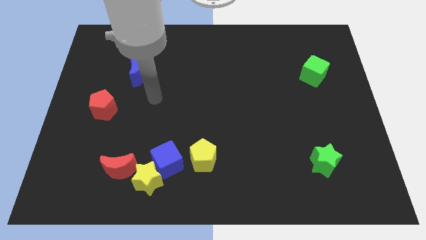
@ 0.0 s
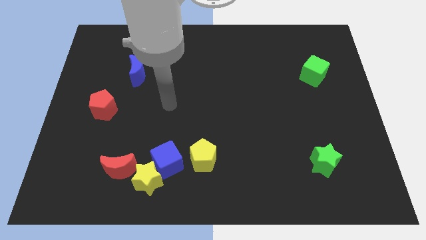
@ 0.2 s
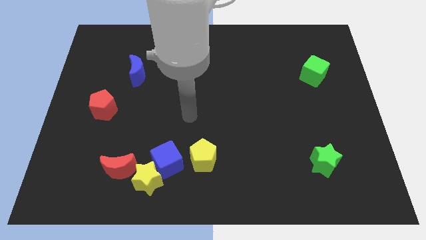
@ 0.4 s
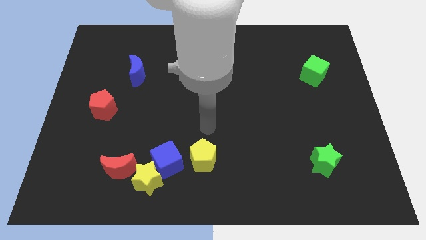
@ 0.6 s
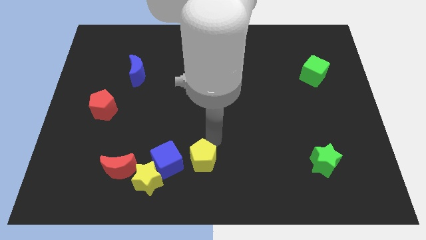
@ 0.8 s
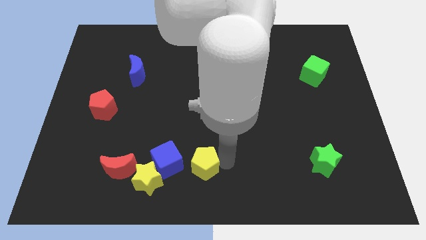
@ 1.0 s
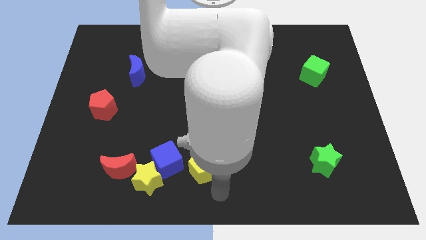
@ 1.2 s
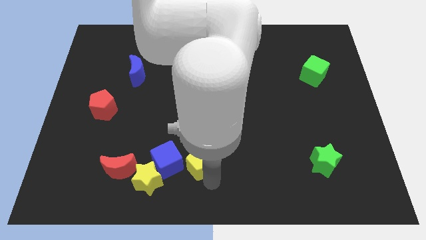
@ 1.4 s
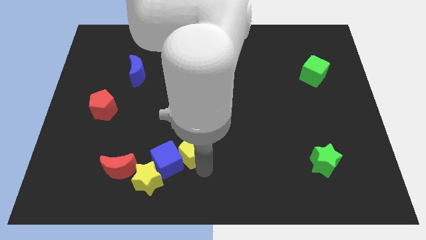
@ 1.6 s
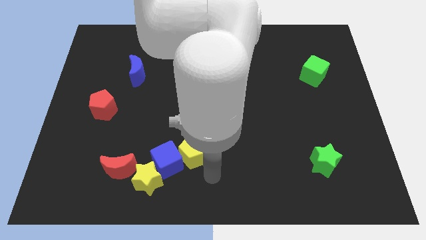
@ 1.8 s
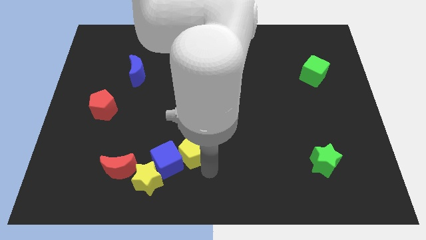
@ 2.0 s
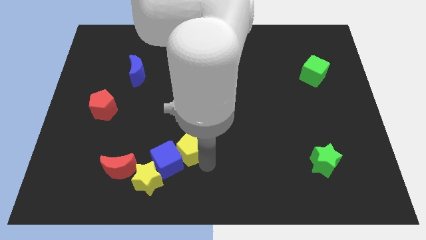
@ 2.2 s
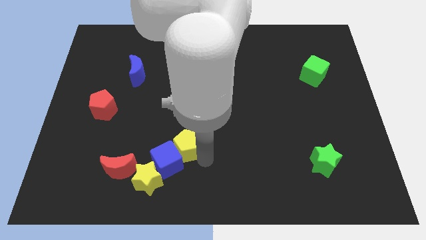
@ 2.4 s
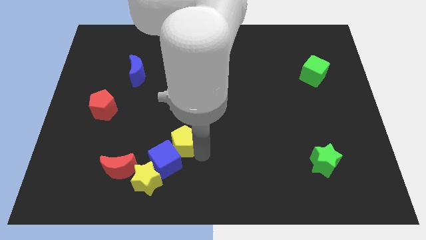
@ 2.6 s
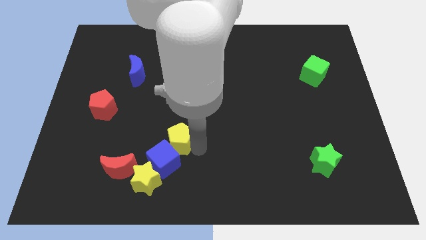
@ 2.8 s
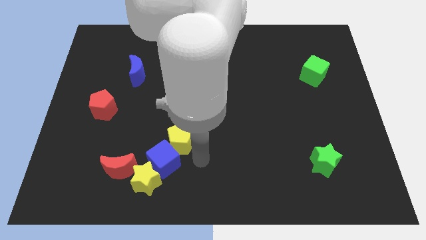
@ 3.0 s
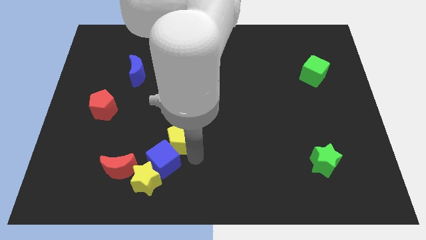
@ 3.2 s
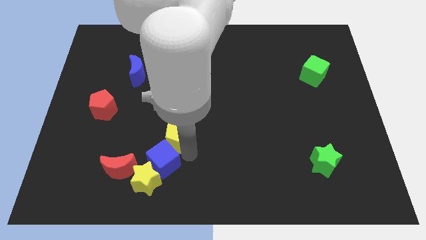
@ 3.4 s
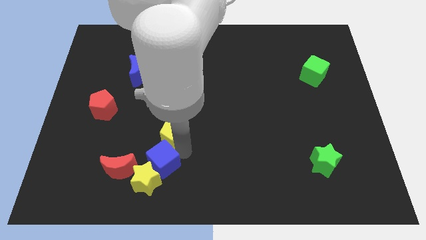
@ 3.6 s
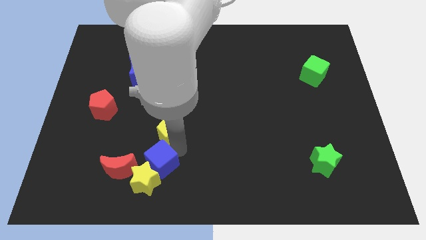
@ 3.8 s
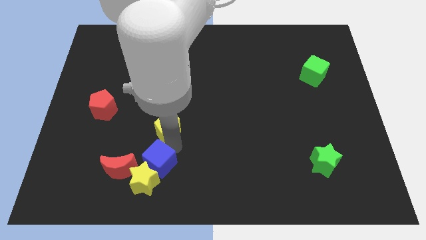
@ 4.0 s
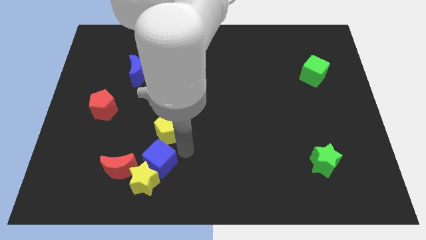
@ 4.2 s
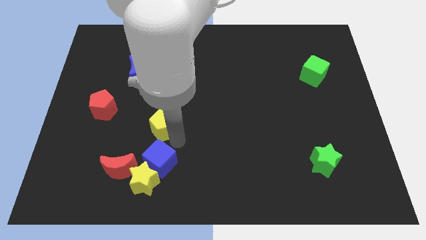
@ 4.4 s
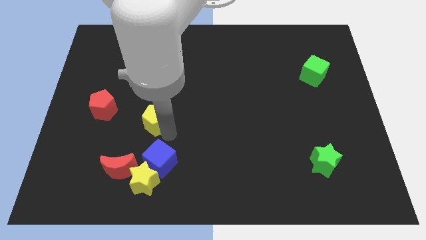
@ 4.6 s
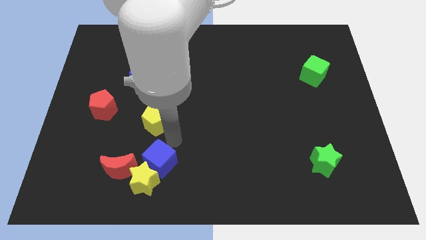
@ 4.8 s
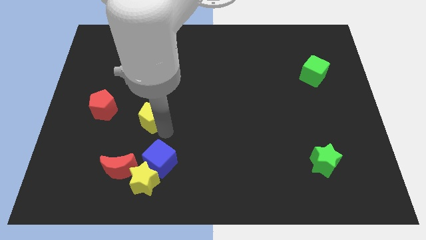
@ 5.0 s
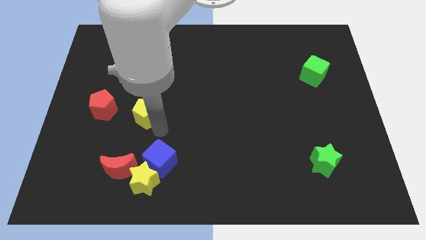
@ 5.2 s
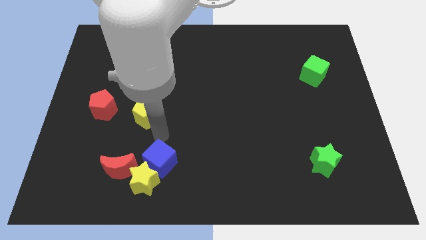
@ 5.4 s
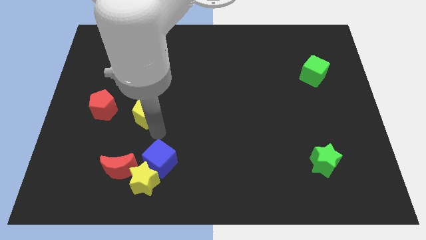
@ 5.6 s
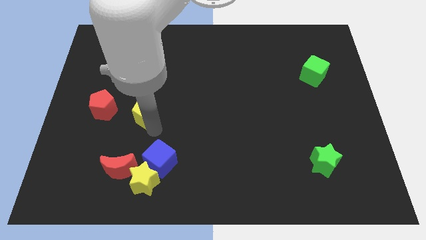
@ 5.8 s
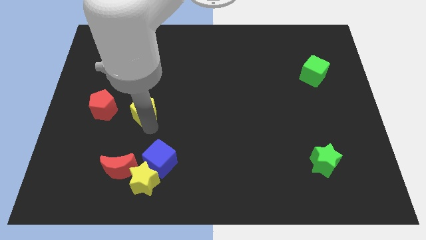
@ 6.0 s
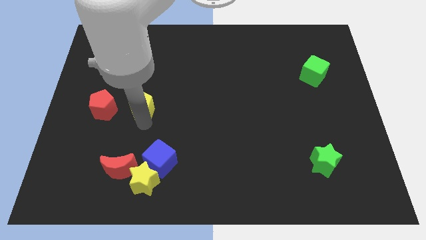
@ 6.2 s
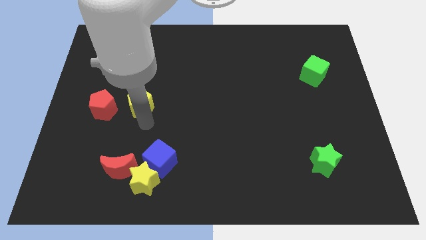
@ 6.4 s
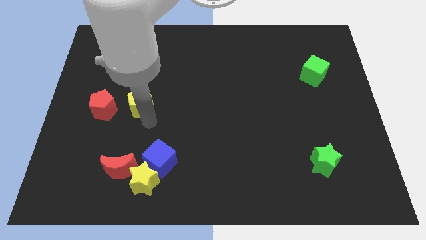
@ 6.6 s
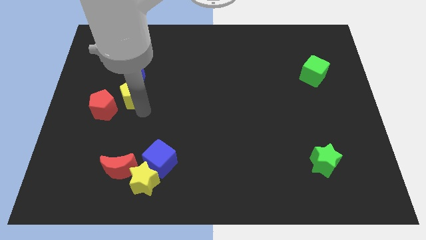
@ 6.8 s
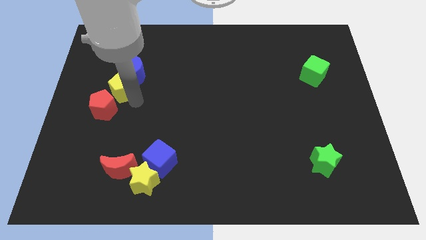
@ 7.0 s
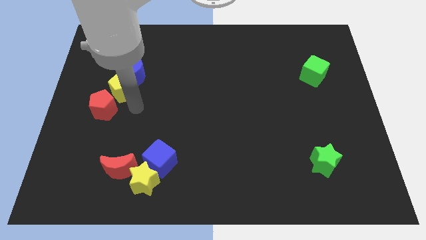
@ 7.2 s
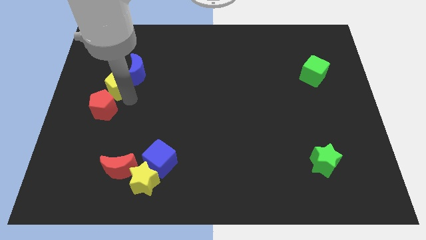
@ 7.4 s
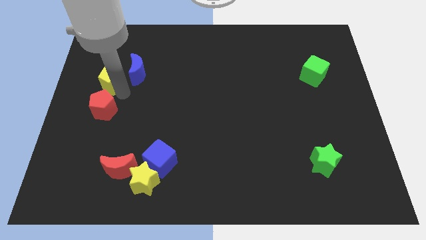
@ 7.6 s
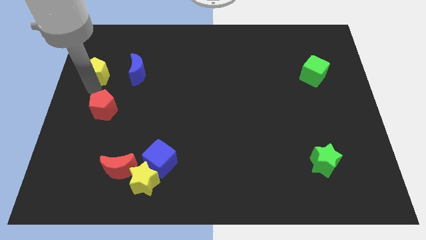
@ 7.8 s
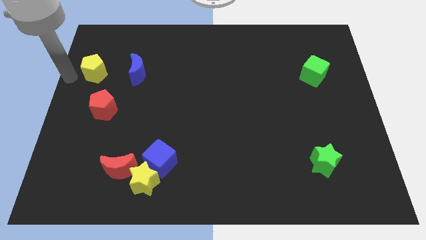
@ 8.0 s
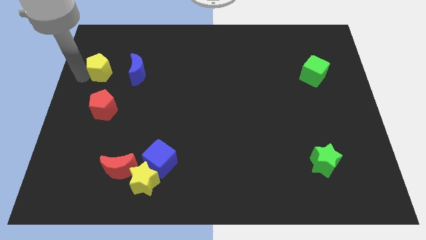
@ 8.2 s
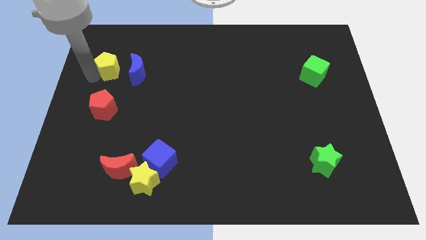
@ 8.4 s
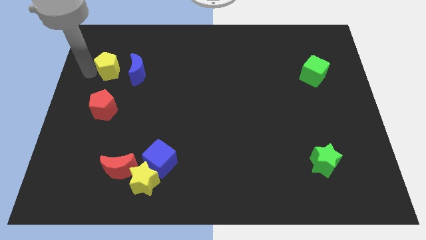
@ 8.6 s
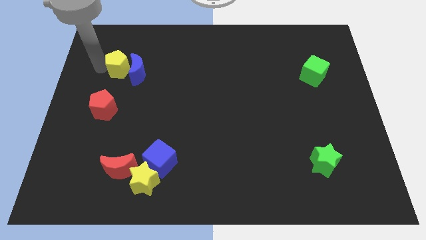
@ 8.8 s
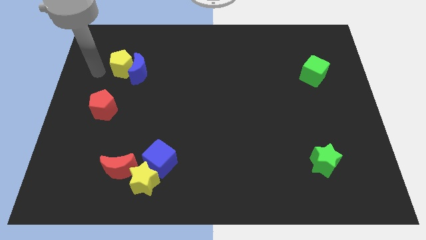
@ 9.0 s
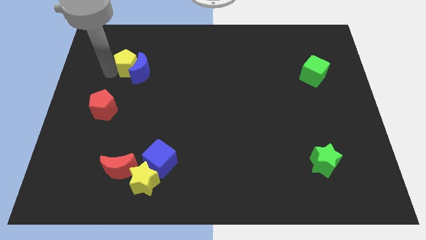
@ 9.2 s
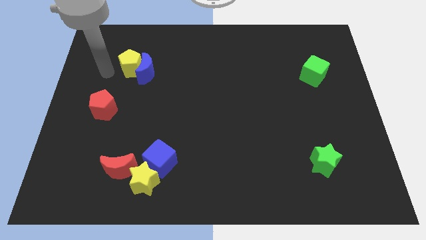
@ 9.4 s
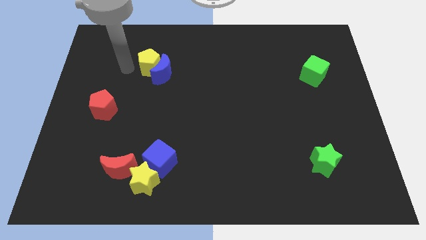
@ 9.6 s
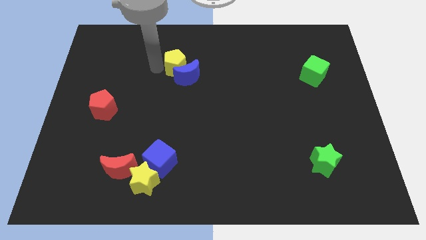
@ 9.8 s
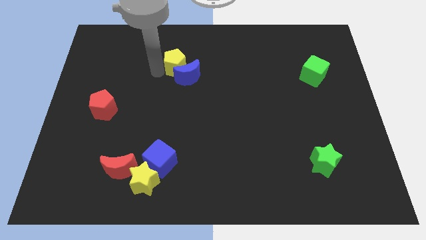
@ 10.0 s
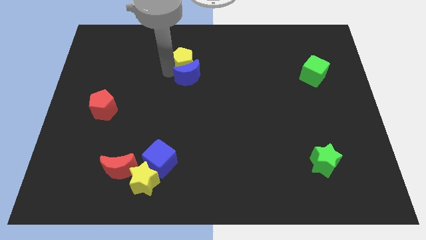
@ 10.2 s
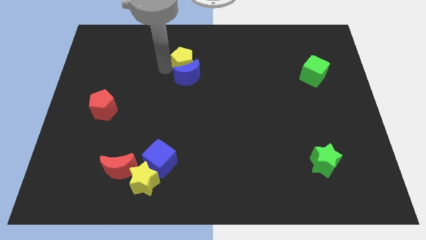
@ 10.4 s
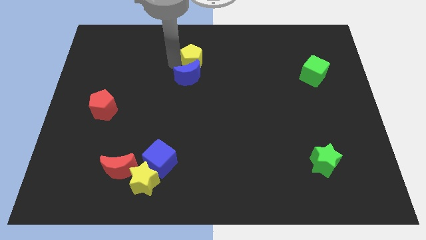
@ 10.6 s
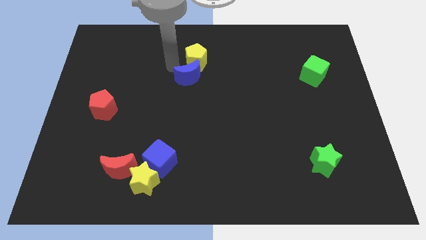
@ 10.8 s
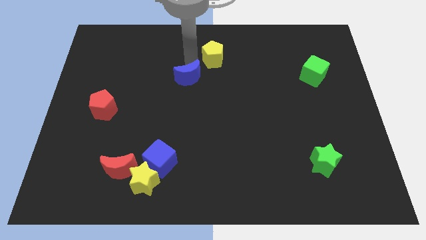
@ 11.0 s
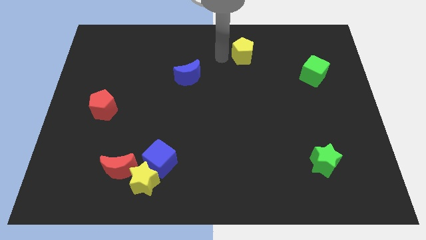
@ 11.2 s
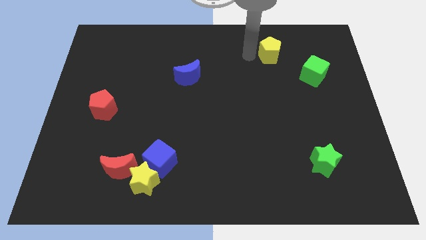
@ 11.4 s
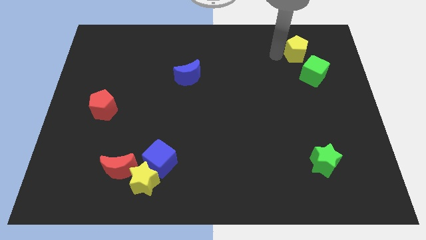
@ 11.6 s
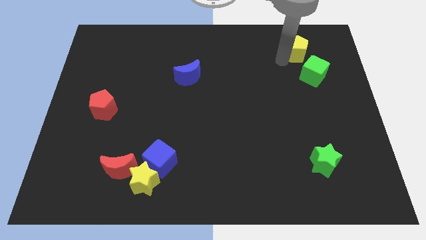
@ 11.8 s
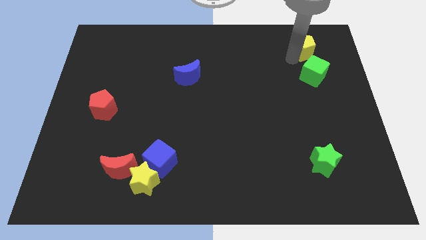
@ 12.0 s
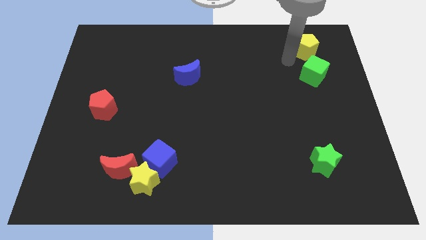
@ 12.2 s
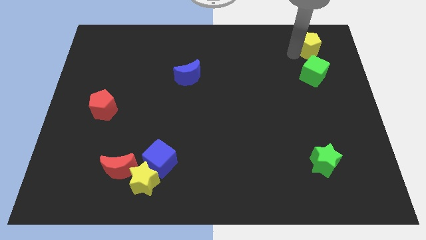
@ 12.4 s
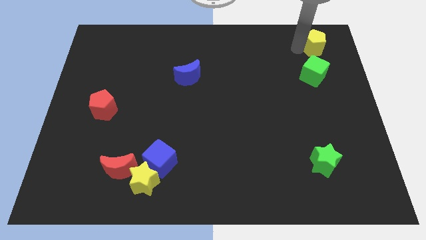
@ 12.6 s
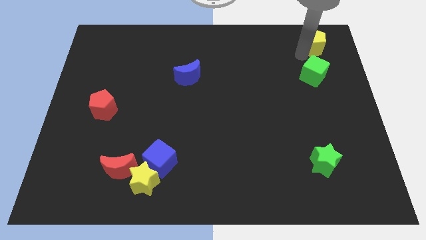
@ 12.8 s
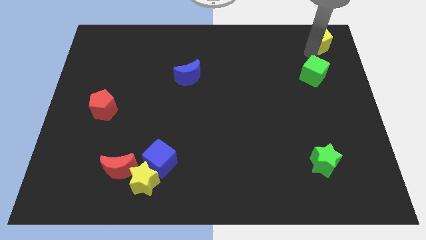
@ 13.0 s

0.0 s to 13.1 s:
put the yellow pentagon to the top right

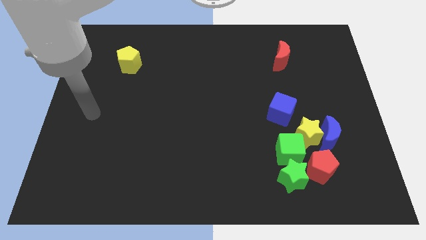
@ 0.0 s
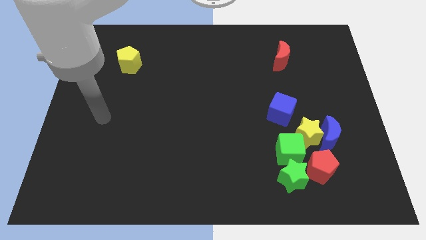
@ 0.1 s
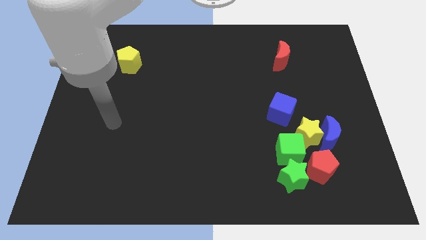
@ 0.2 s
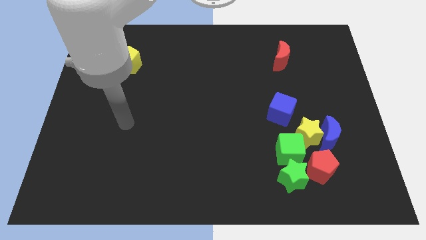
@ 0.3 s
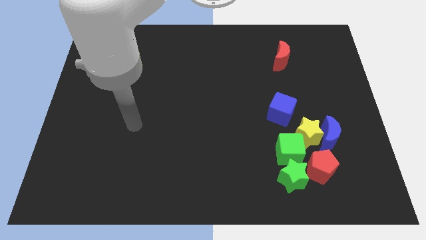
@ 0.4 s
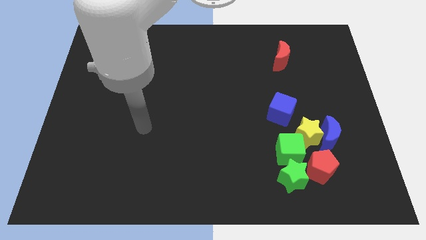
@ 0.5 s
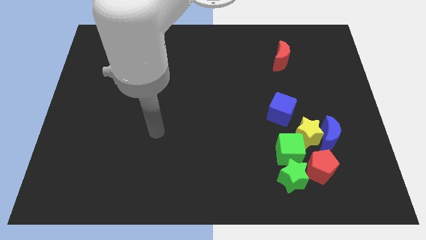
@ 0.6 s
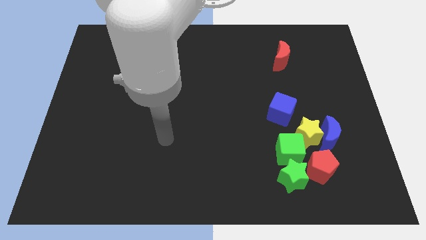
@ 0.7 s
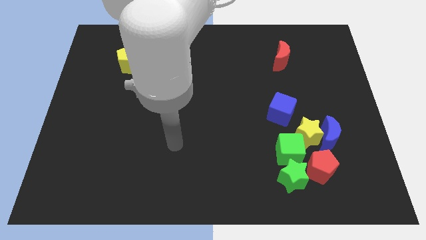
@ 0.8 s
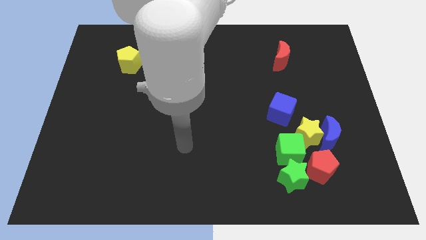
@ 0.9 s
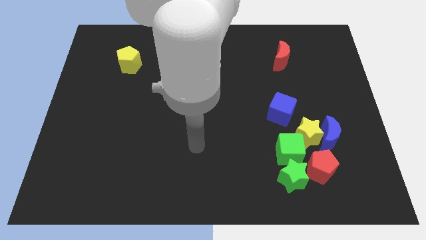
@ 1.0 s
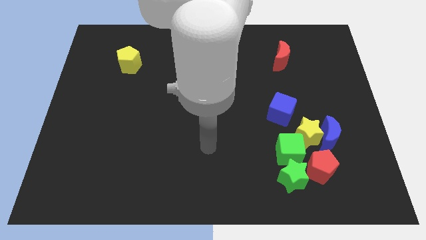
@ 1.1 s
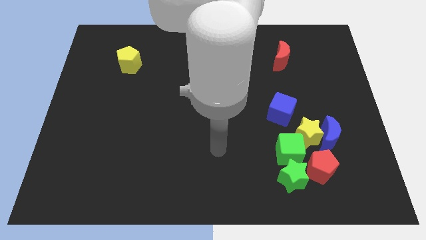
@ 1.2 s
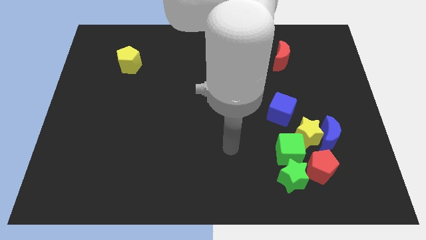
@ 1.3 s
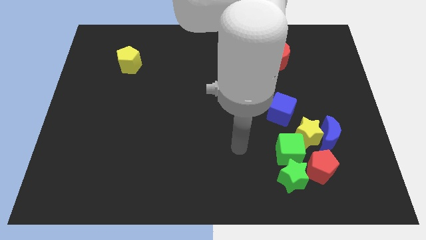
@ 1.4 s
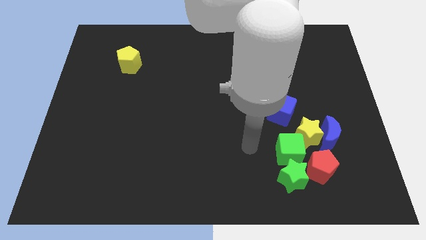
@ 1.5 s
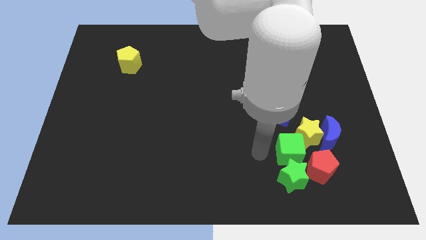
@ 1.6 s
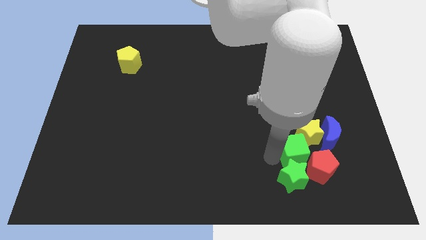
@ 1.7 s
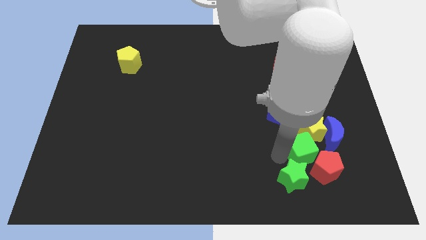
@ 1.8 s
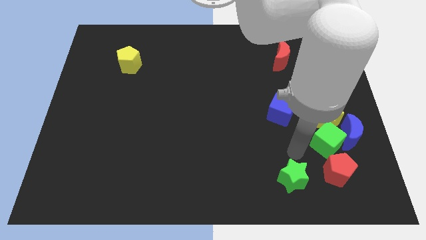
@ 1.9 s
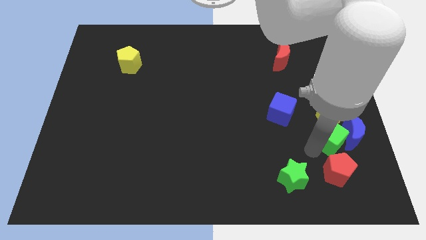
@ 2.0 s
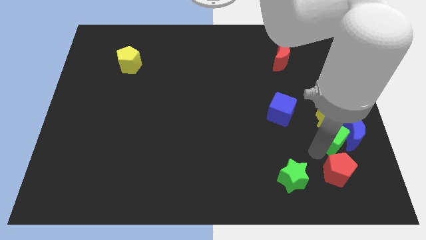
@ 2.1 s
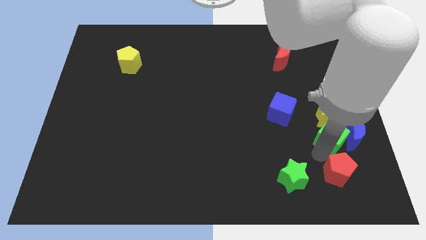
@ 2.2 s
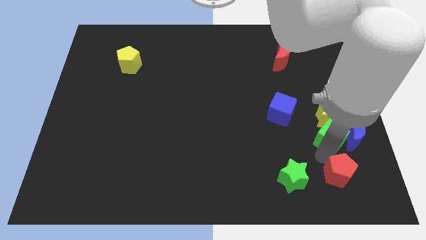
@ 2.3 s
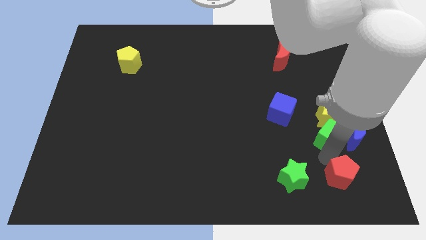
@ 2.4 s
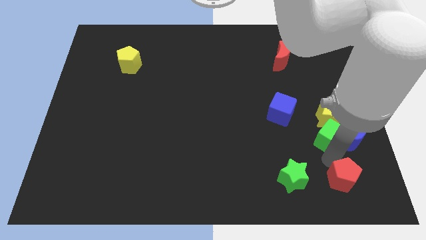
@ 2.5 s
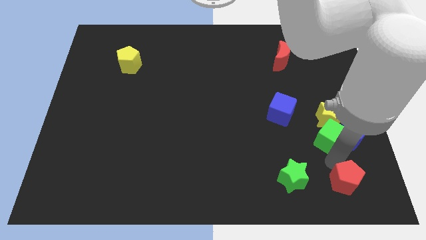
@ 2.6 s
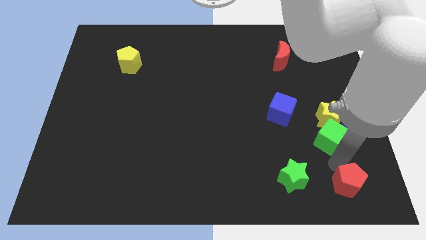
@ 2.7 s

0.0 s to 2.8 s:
put the red pentagon to the bottom right corner
